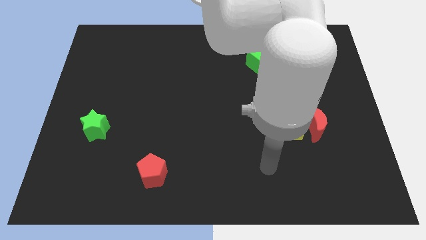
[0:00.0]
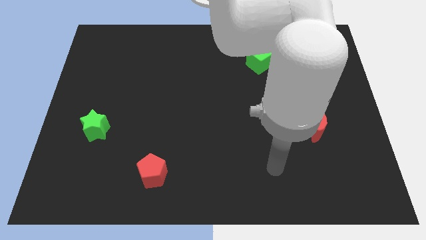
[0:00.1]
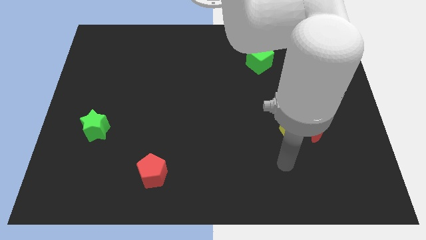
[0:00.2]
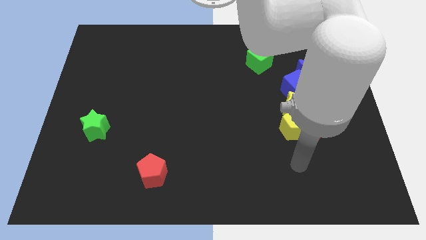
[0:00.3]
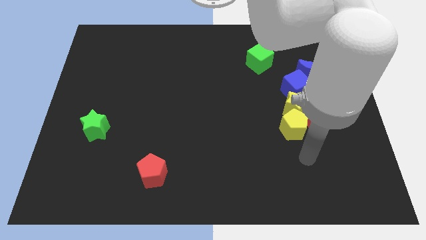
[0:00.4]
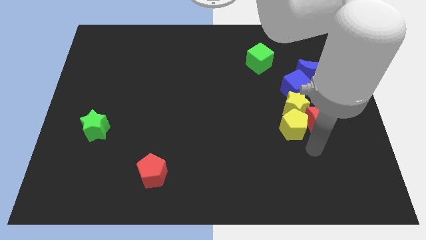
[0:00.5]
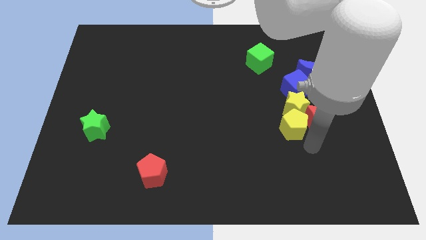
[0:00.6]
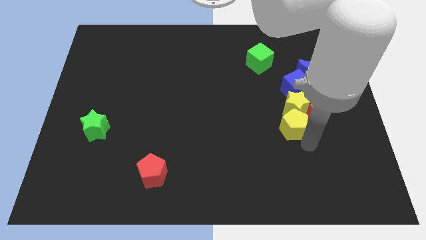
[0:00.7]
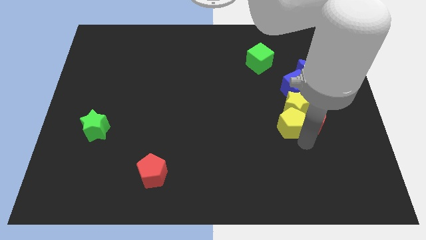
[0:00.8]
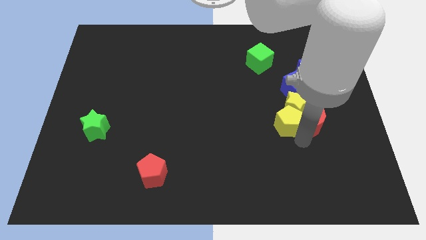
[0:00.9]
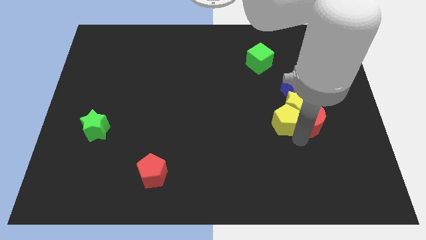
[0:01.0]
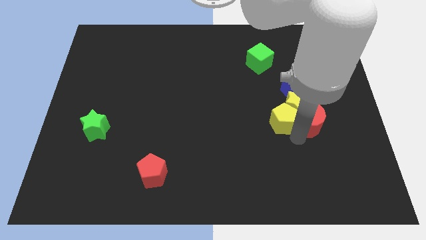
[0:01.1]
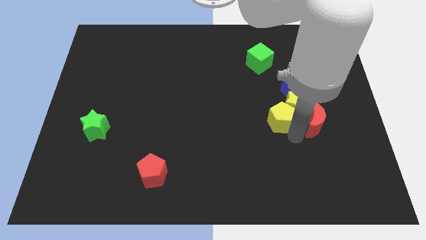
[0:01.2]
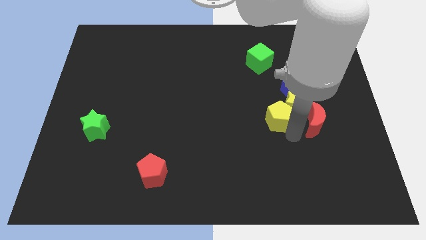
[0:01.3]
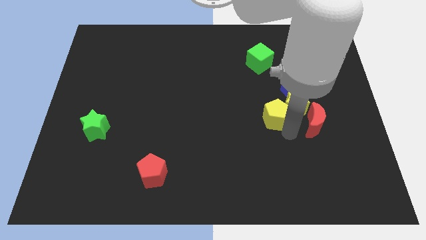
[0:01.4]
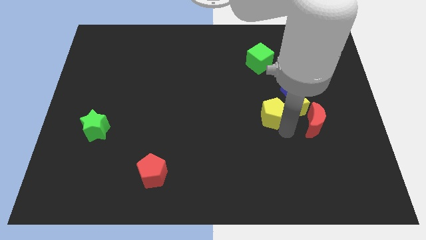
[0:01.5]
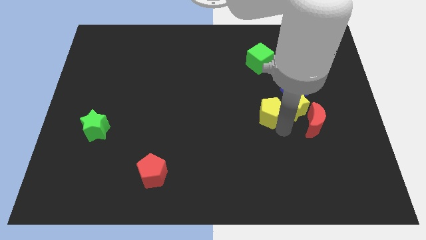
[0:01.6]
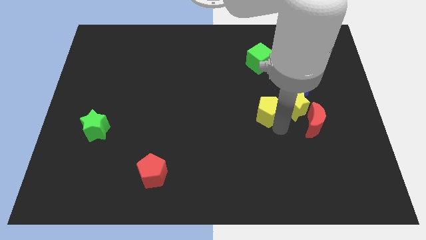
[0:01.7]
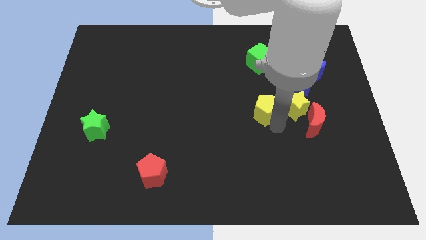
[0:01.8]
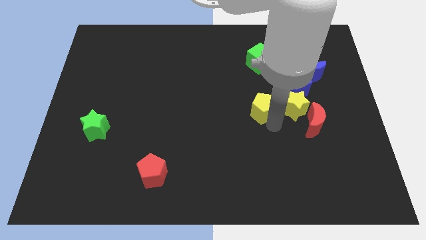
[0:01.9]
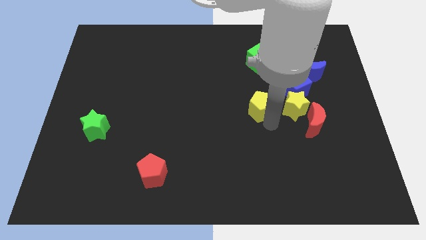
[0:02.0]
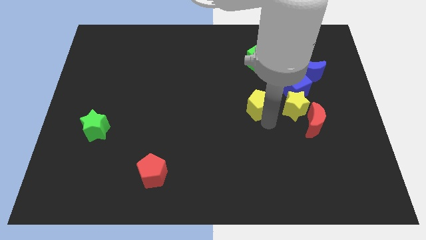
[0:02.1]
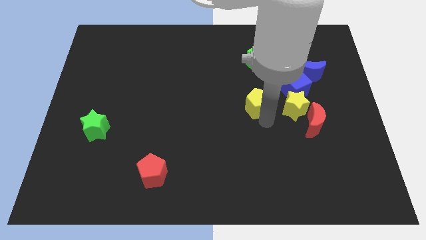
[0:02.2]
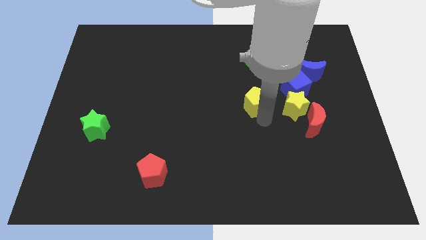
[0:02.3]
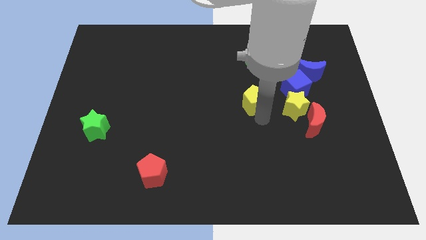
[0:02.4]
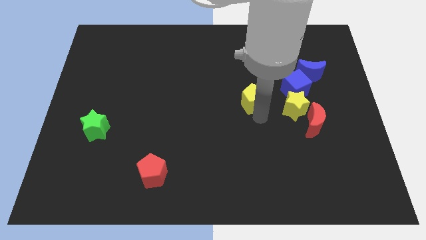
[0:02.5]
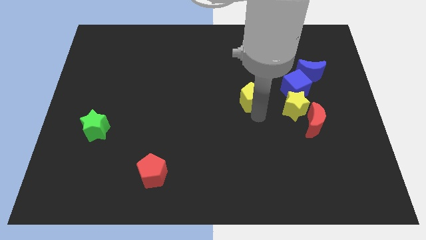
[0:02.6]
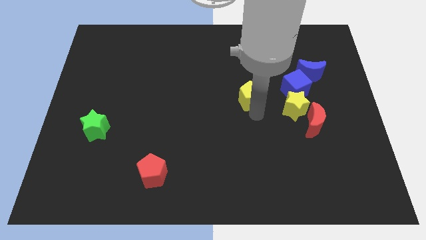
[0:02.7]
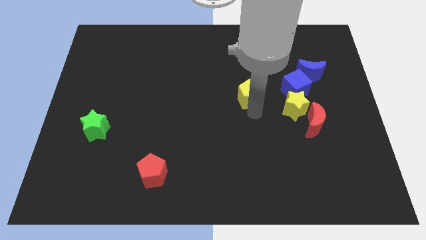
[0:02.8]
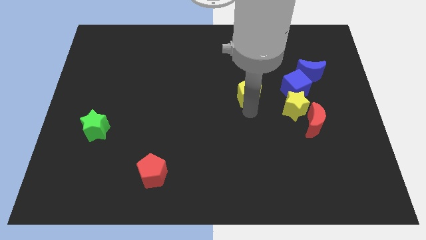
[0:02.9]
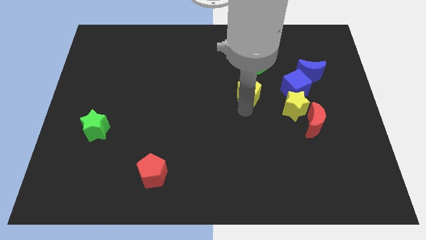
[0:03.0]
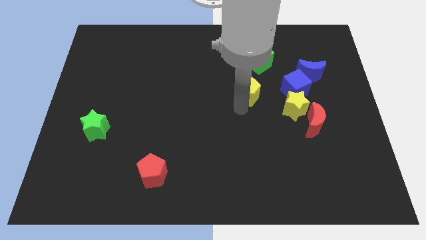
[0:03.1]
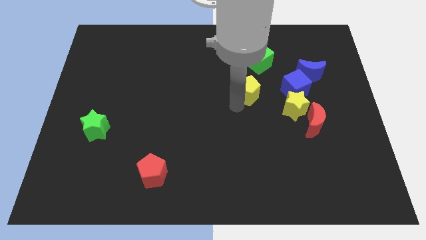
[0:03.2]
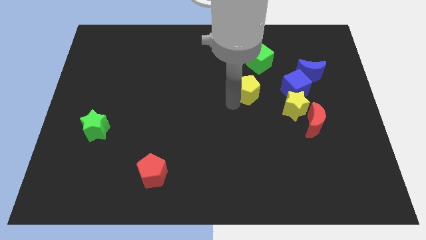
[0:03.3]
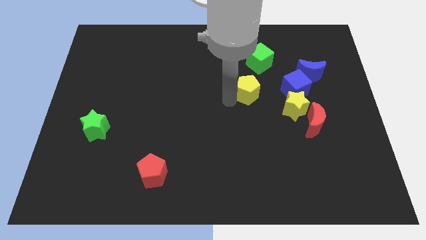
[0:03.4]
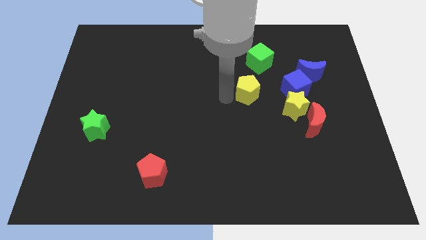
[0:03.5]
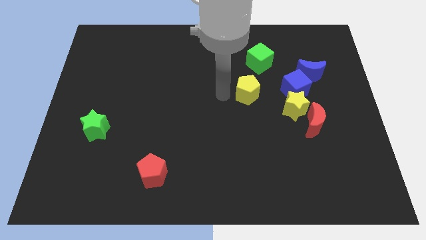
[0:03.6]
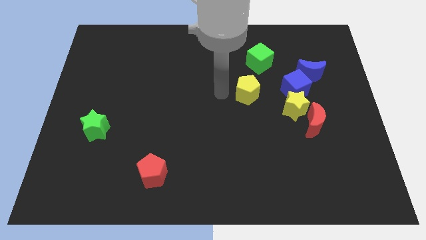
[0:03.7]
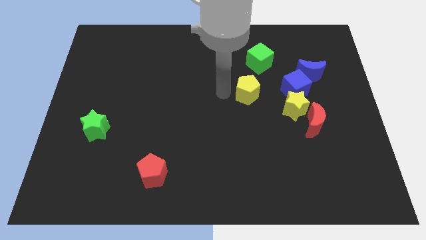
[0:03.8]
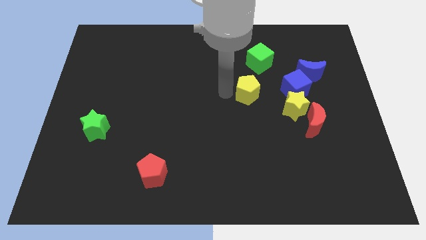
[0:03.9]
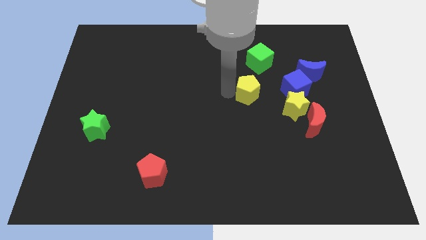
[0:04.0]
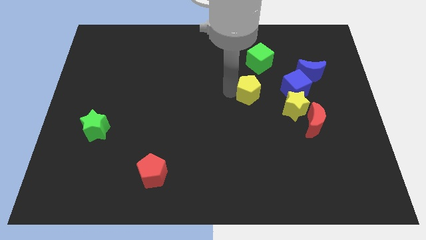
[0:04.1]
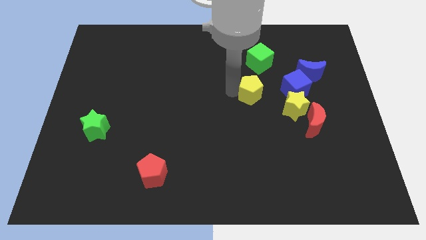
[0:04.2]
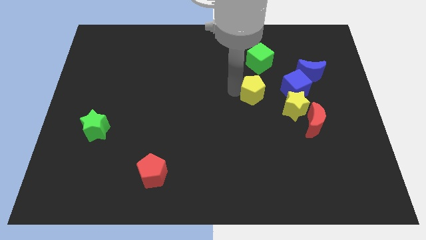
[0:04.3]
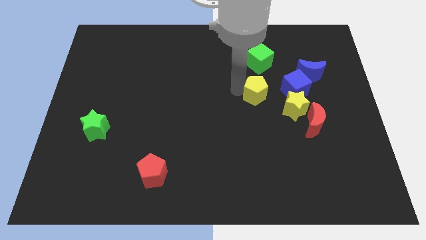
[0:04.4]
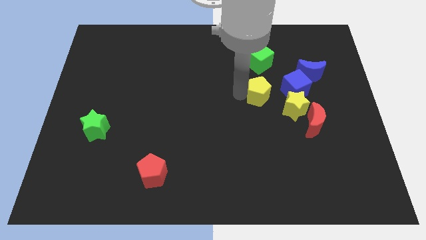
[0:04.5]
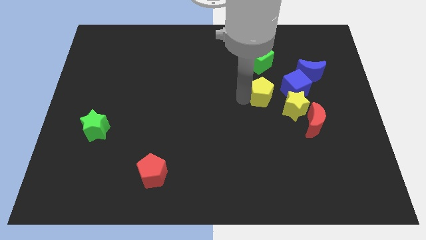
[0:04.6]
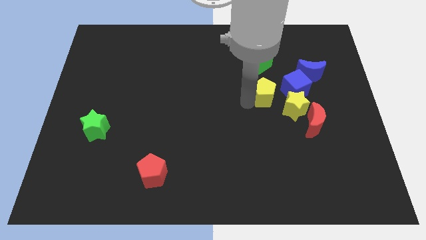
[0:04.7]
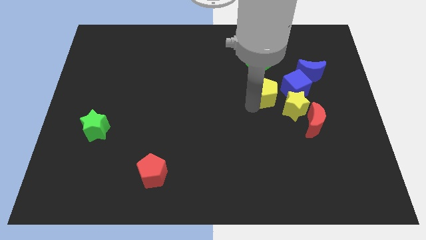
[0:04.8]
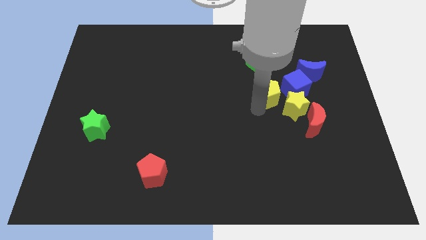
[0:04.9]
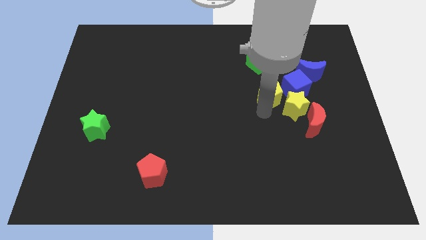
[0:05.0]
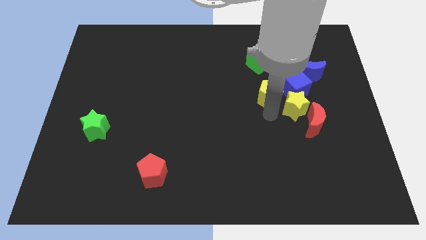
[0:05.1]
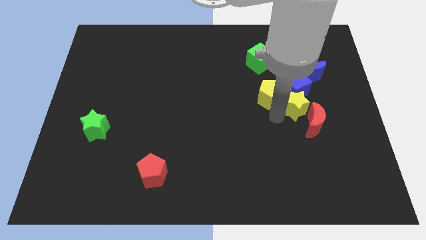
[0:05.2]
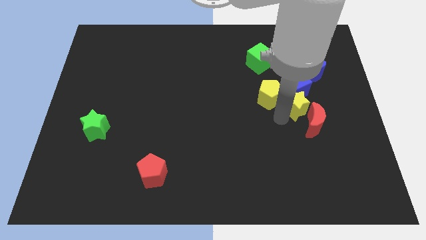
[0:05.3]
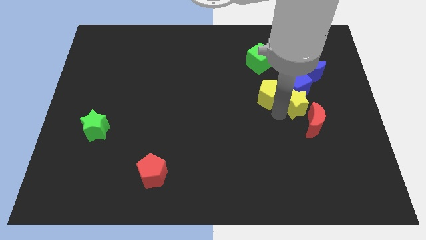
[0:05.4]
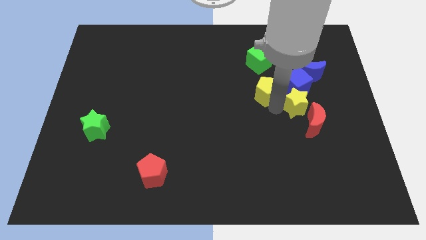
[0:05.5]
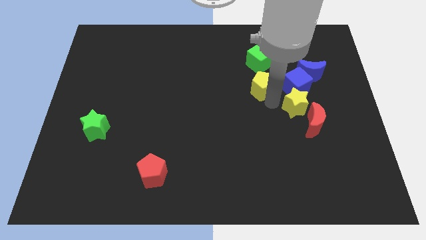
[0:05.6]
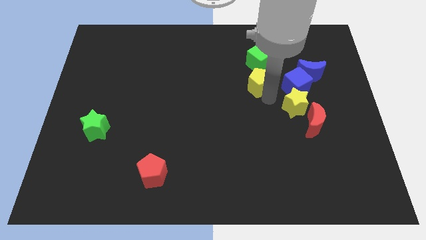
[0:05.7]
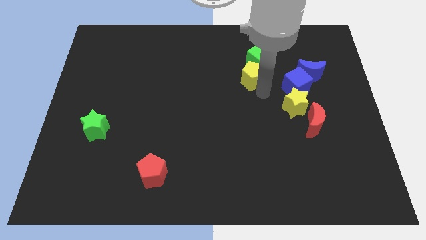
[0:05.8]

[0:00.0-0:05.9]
push the yellow pentagon towards the green cube

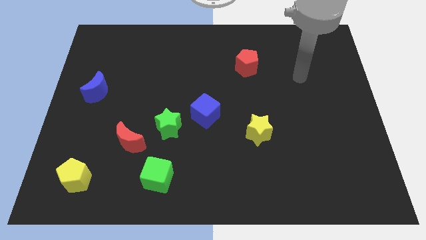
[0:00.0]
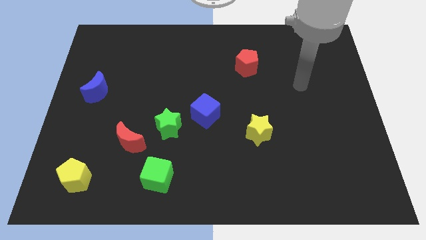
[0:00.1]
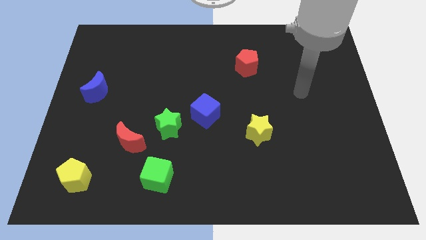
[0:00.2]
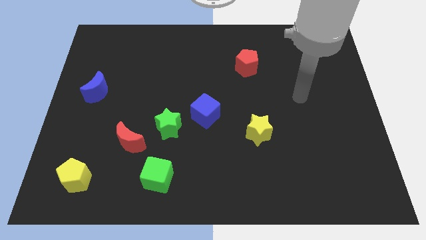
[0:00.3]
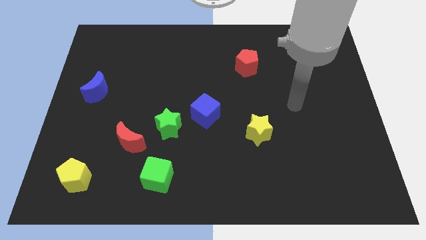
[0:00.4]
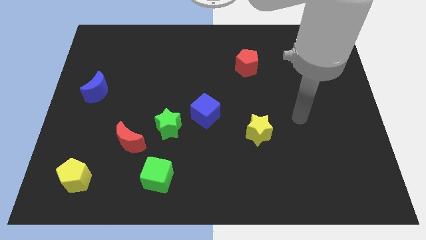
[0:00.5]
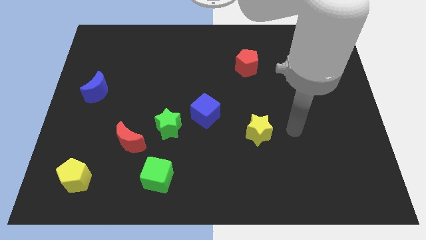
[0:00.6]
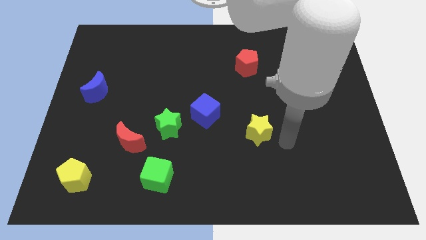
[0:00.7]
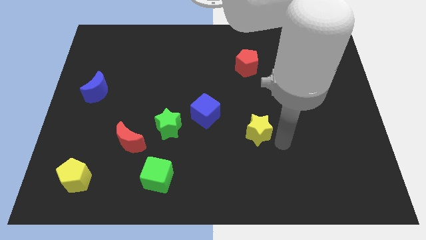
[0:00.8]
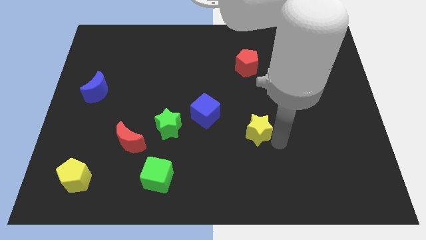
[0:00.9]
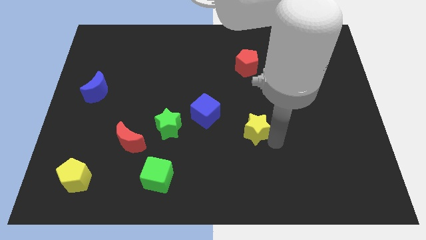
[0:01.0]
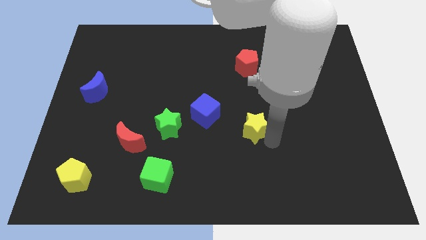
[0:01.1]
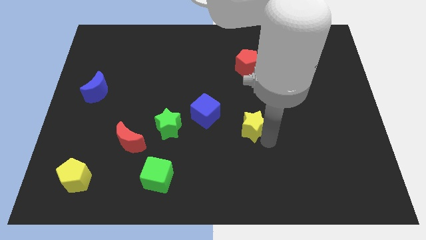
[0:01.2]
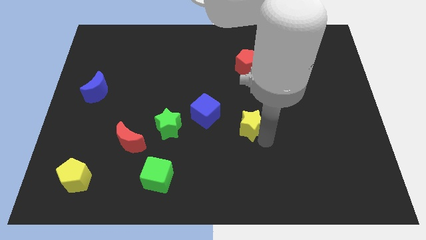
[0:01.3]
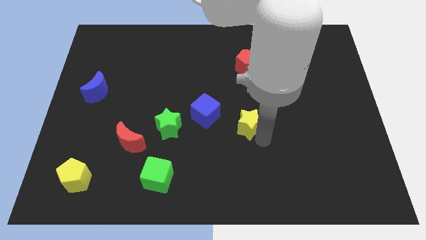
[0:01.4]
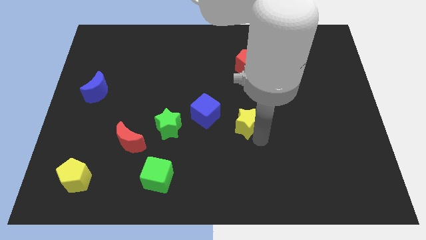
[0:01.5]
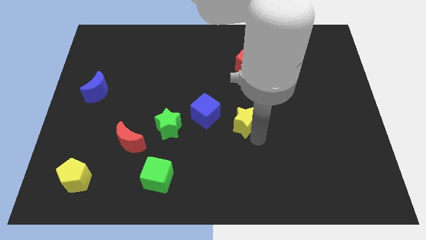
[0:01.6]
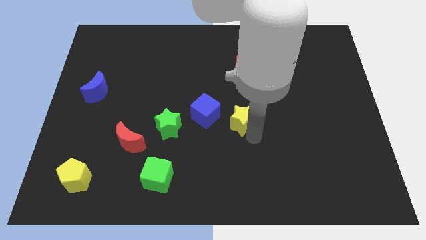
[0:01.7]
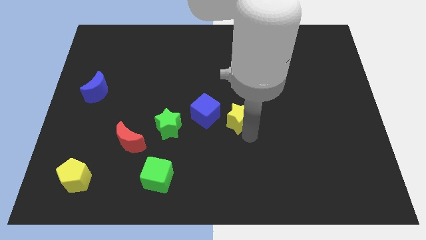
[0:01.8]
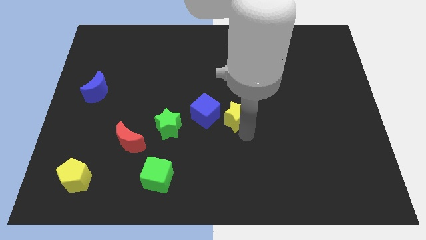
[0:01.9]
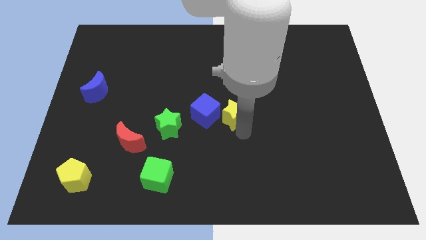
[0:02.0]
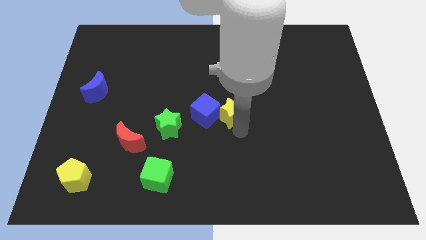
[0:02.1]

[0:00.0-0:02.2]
slide the yellow star towards the blue cube
